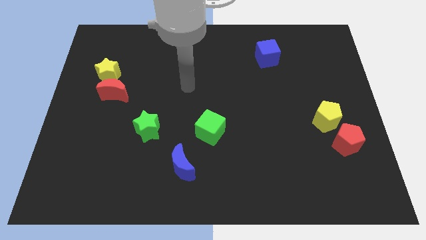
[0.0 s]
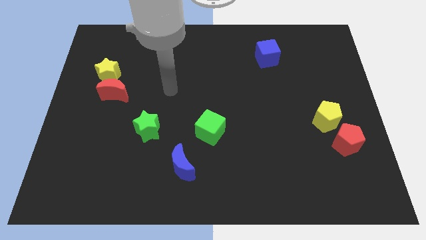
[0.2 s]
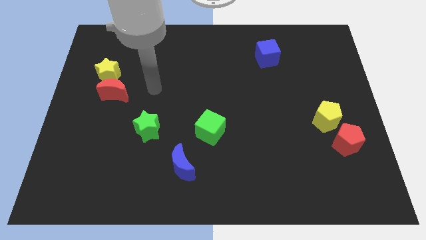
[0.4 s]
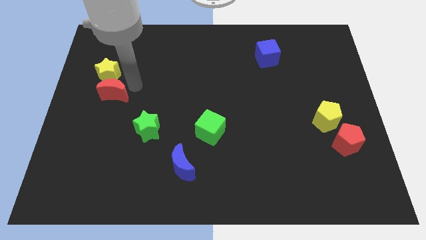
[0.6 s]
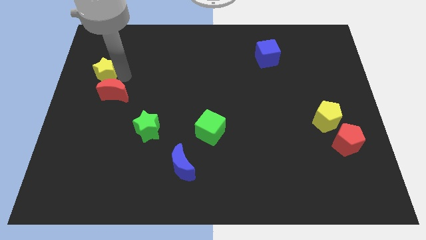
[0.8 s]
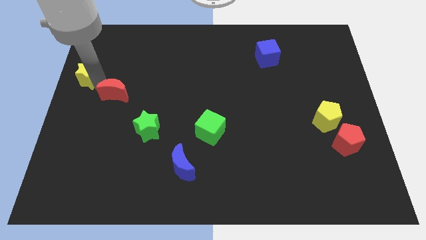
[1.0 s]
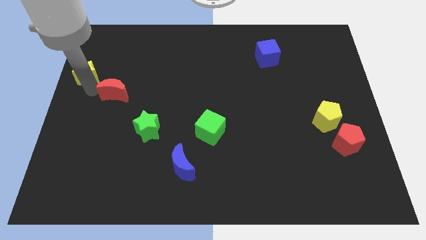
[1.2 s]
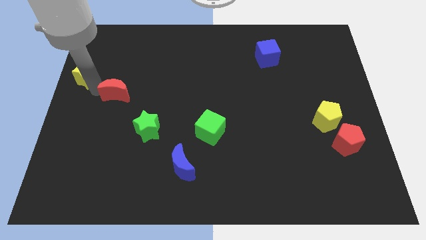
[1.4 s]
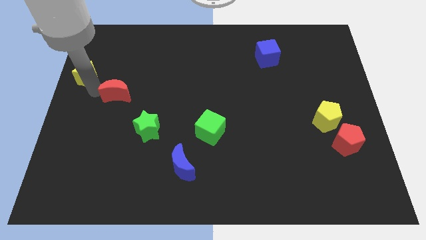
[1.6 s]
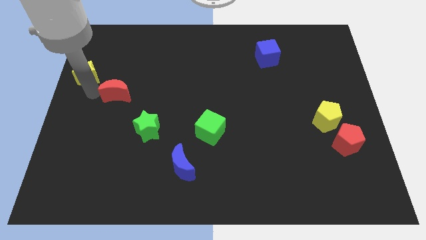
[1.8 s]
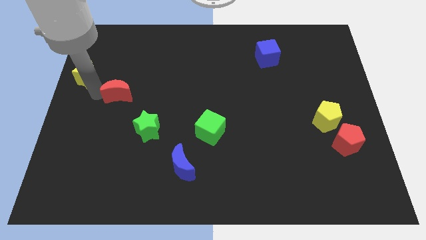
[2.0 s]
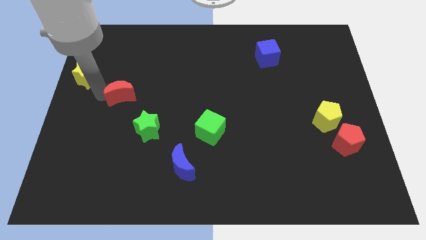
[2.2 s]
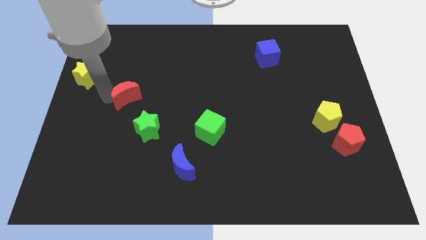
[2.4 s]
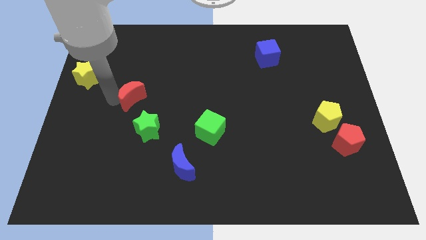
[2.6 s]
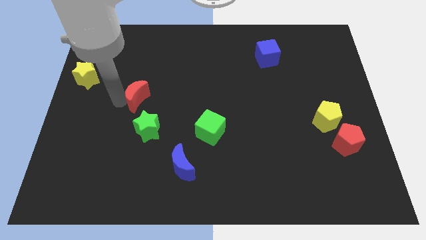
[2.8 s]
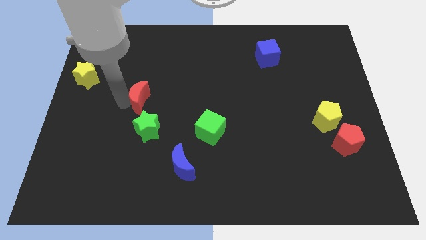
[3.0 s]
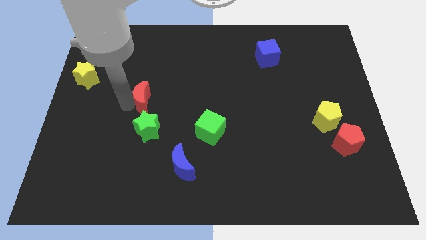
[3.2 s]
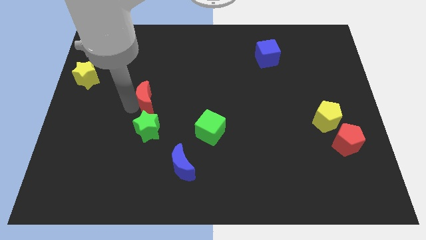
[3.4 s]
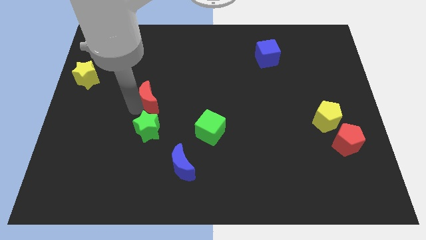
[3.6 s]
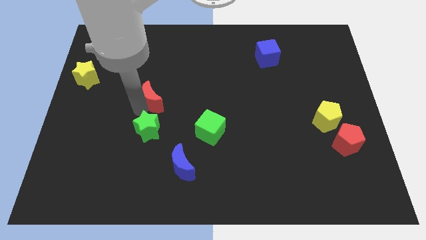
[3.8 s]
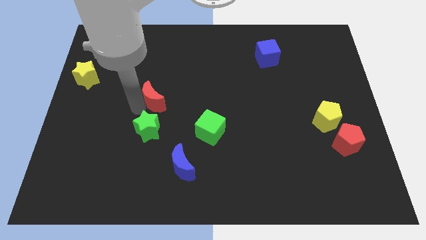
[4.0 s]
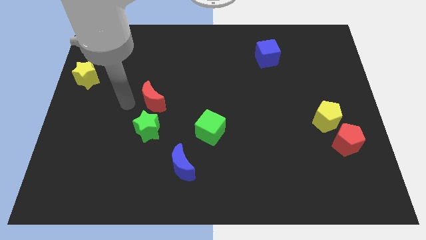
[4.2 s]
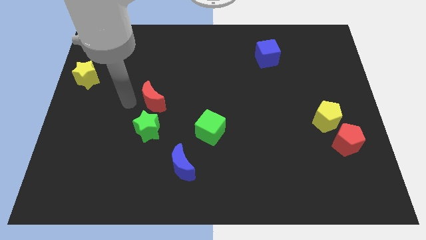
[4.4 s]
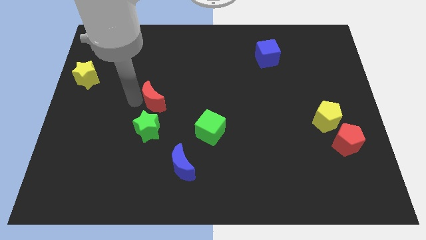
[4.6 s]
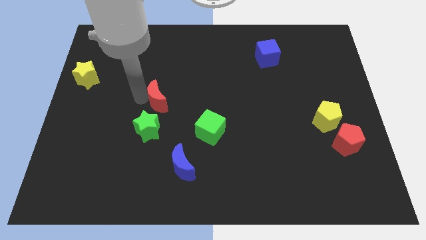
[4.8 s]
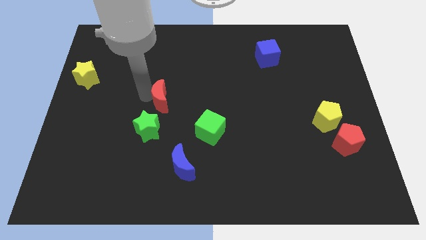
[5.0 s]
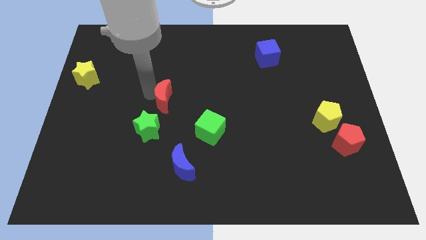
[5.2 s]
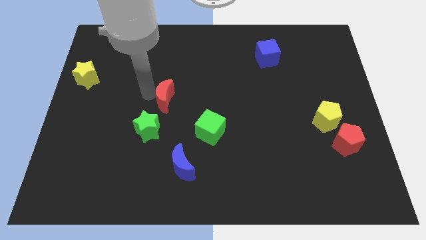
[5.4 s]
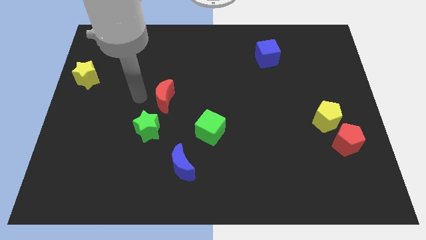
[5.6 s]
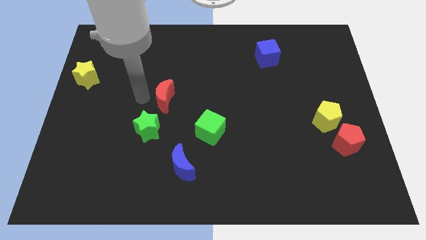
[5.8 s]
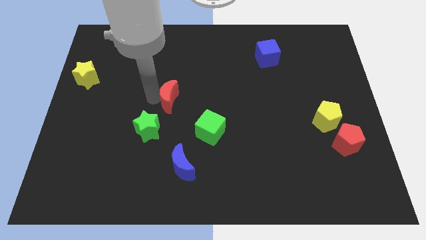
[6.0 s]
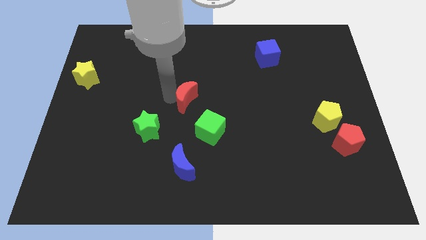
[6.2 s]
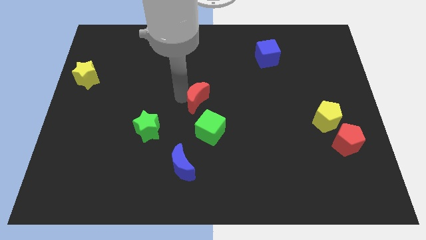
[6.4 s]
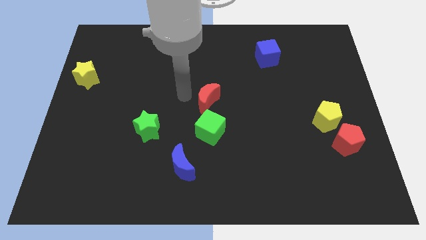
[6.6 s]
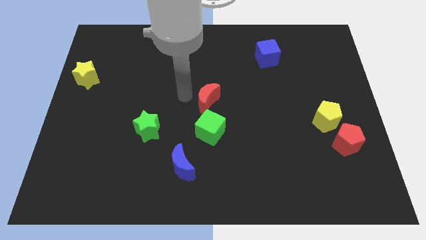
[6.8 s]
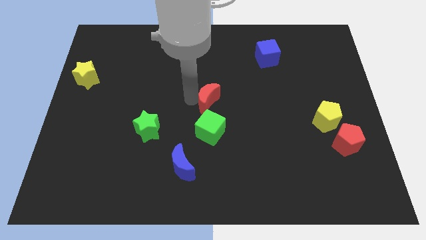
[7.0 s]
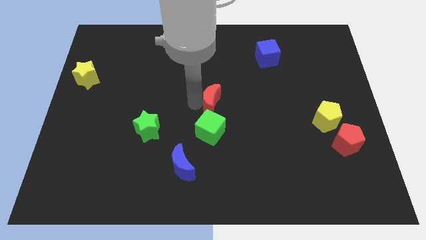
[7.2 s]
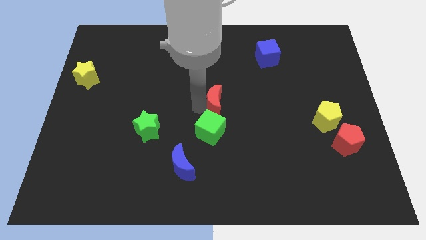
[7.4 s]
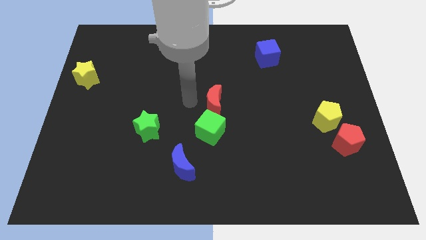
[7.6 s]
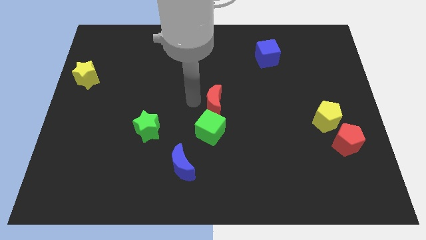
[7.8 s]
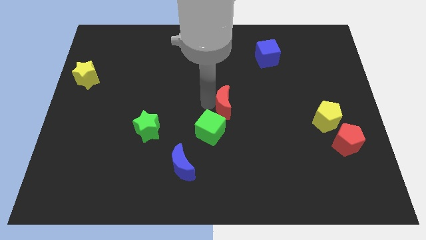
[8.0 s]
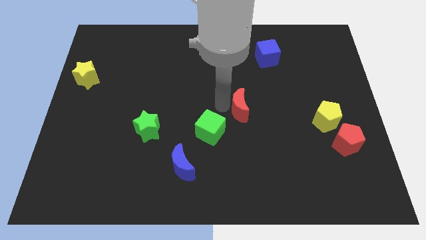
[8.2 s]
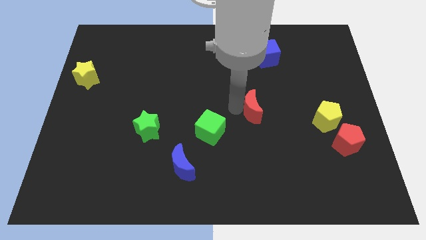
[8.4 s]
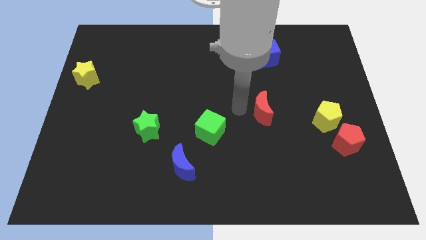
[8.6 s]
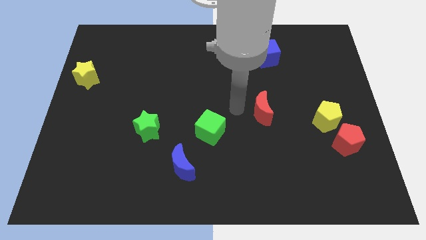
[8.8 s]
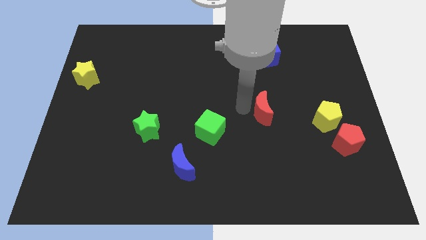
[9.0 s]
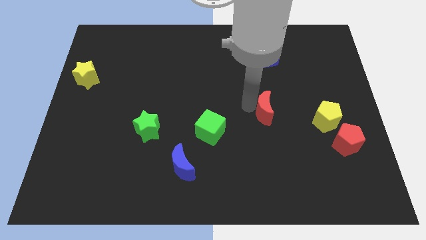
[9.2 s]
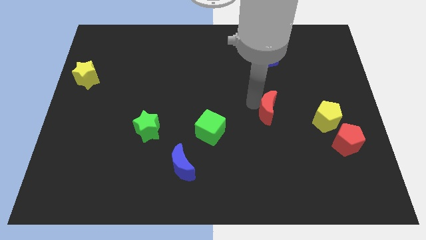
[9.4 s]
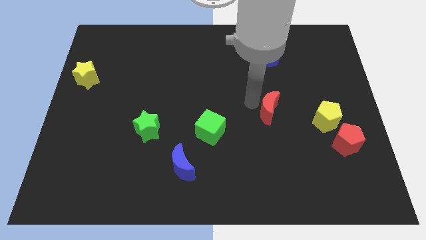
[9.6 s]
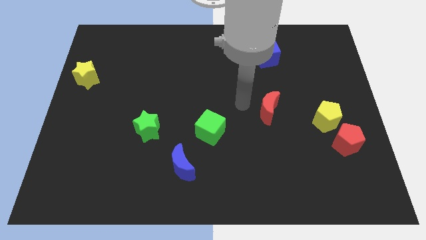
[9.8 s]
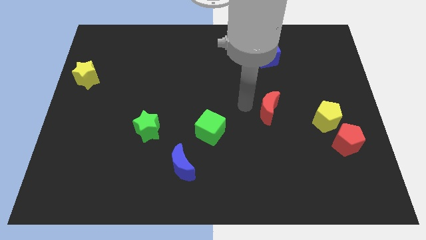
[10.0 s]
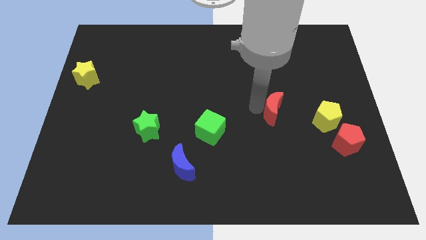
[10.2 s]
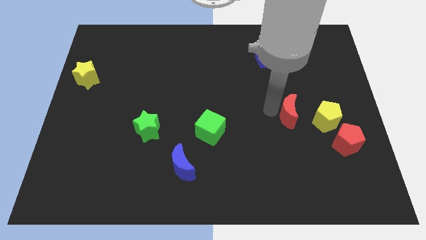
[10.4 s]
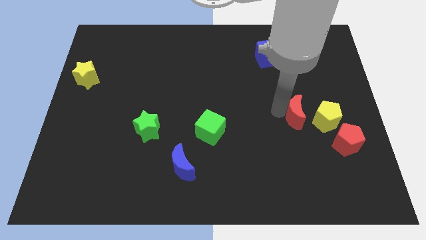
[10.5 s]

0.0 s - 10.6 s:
slide the red moon to the top left of the red pentagon

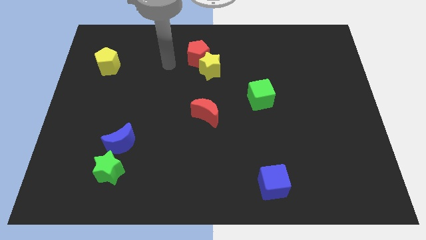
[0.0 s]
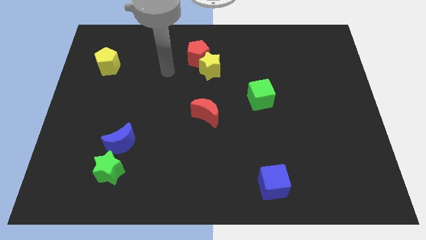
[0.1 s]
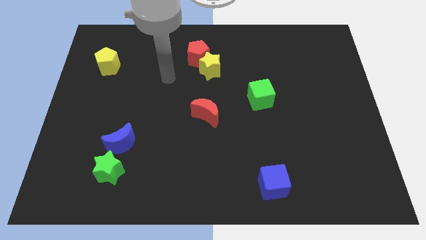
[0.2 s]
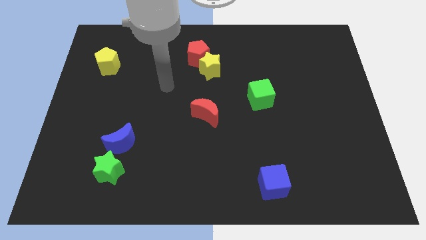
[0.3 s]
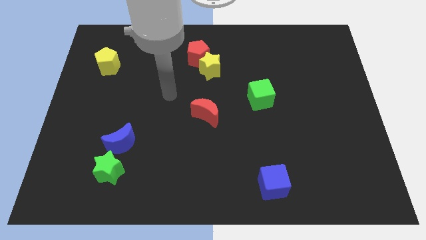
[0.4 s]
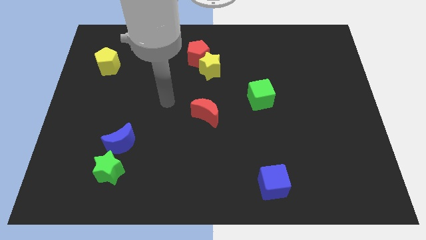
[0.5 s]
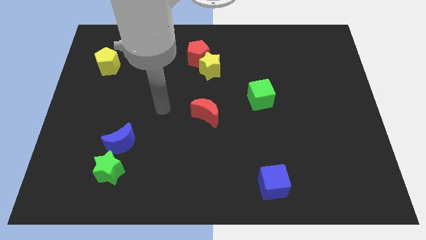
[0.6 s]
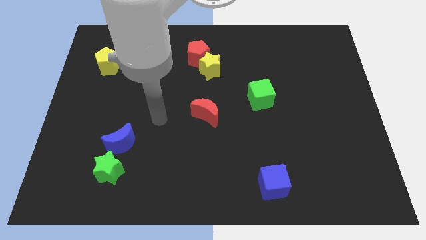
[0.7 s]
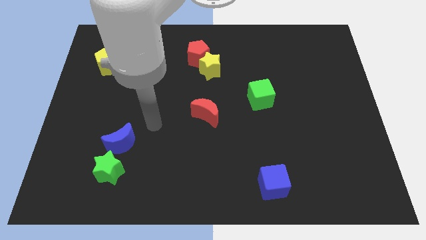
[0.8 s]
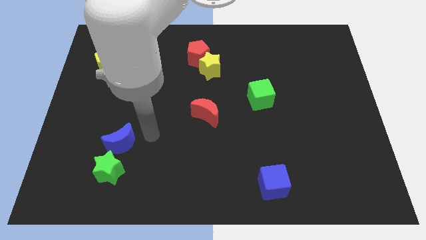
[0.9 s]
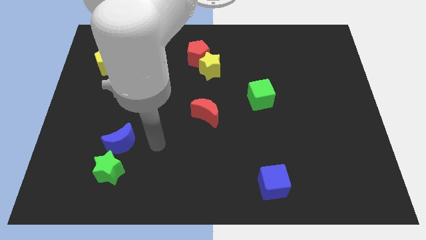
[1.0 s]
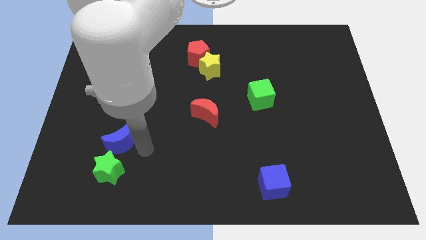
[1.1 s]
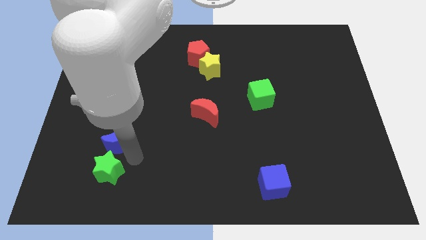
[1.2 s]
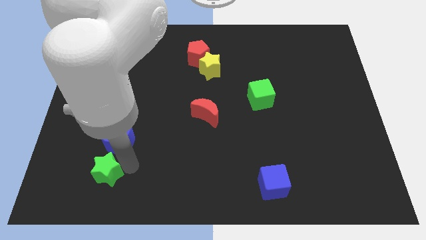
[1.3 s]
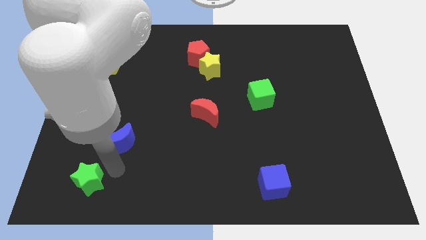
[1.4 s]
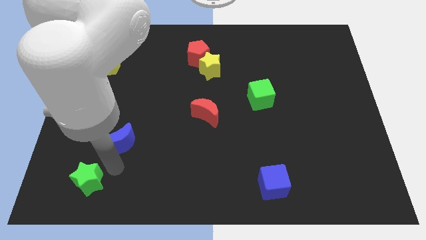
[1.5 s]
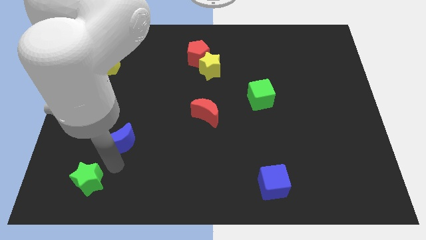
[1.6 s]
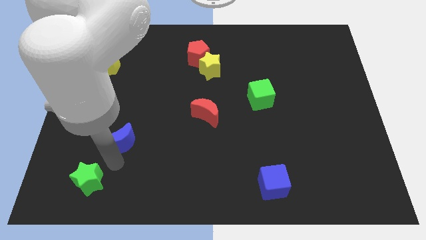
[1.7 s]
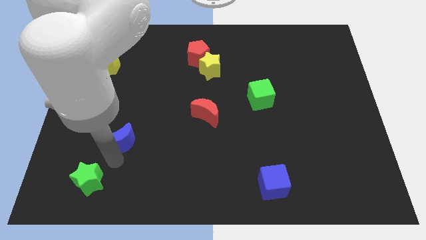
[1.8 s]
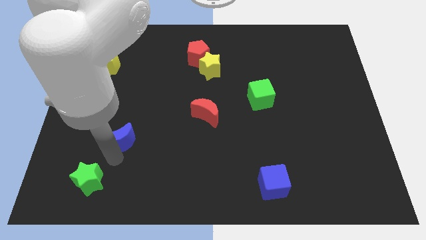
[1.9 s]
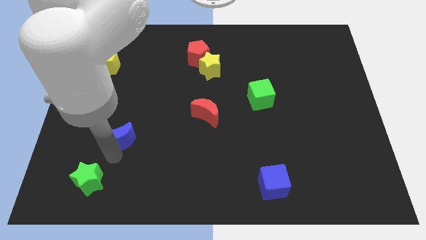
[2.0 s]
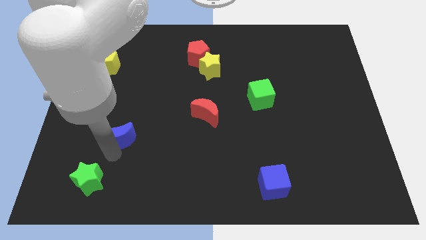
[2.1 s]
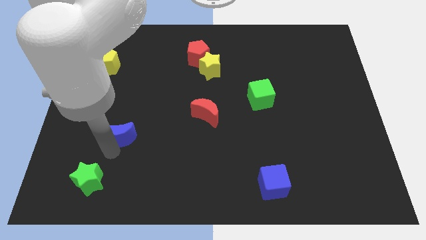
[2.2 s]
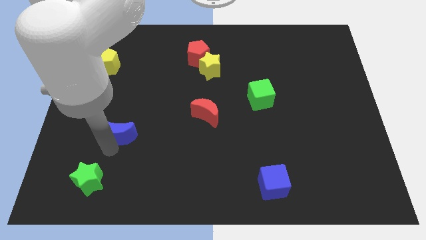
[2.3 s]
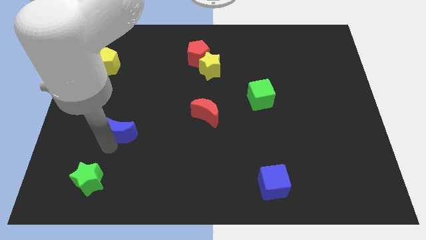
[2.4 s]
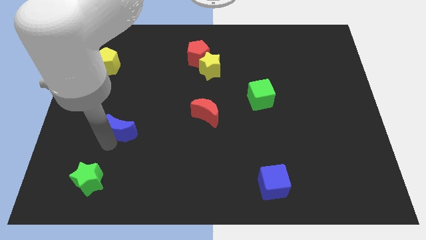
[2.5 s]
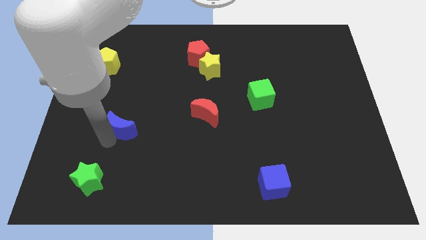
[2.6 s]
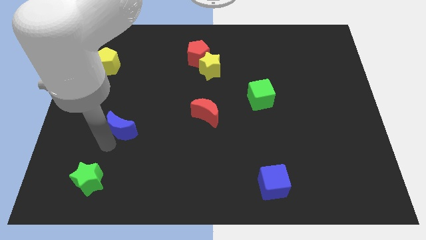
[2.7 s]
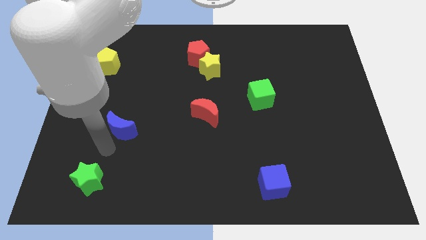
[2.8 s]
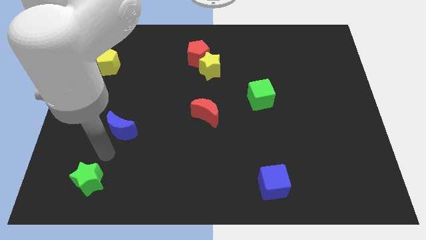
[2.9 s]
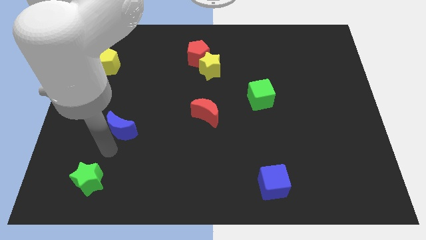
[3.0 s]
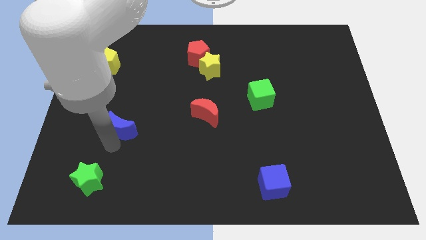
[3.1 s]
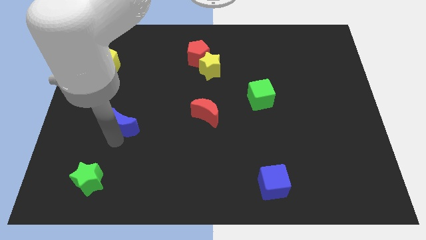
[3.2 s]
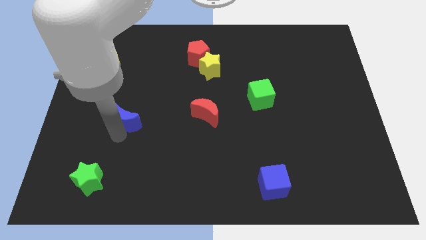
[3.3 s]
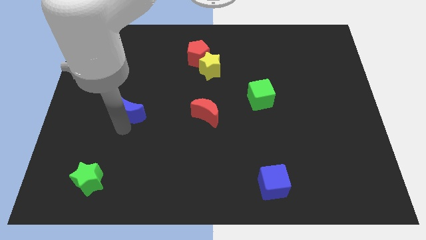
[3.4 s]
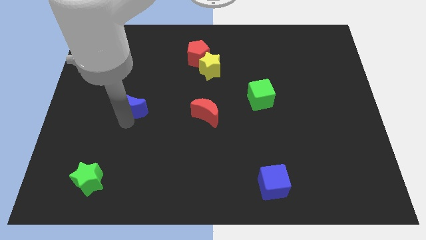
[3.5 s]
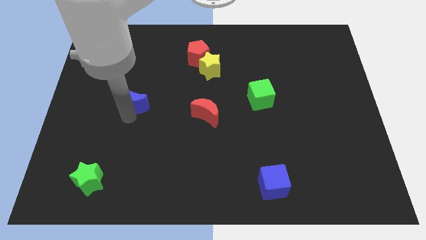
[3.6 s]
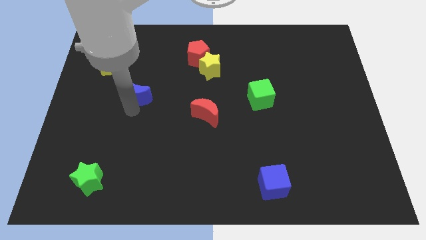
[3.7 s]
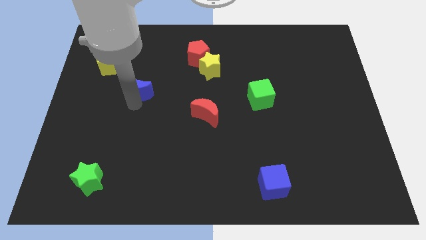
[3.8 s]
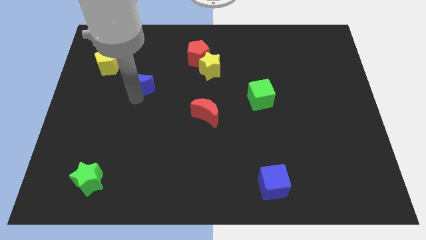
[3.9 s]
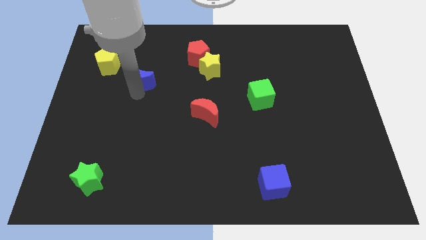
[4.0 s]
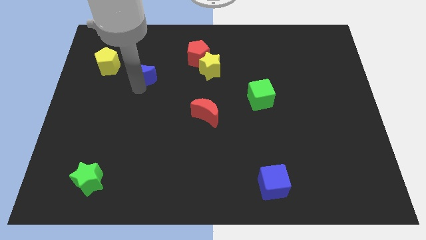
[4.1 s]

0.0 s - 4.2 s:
slide the blue moon to the right side of the yellow pentagon
